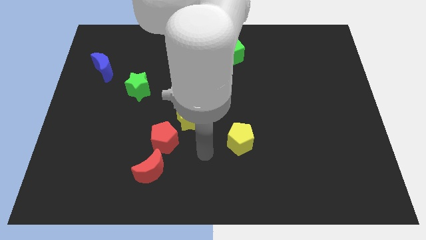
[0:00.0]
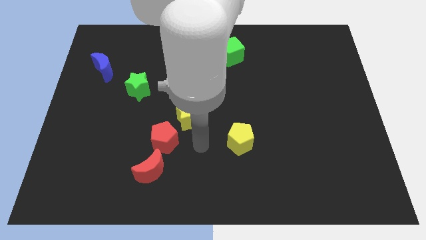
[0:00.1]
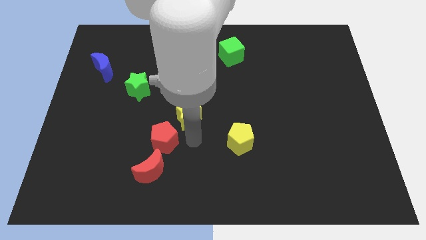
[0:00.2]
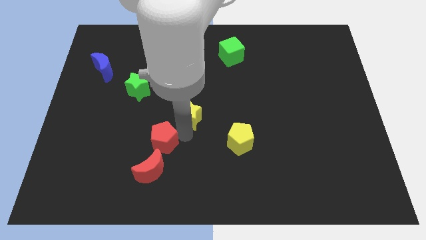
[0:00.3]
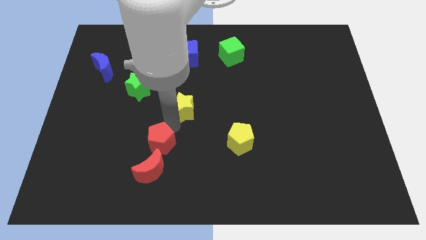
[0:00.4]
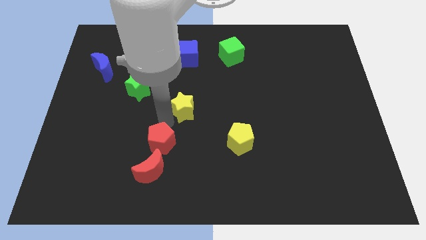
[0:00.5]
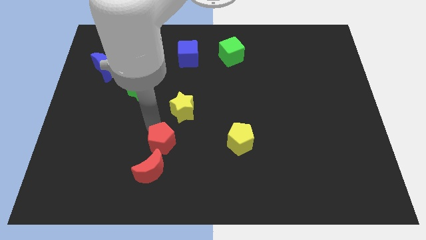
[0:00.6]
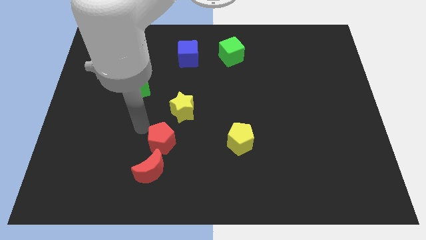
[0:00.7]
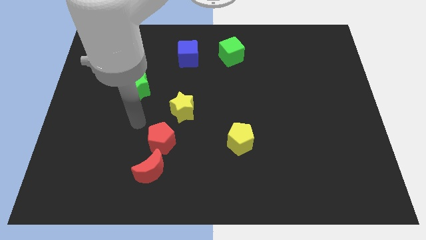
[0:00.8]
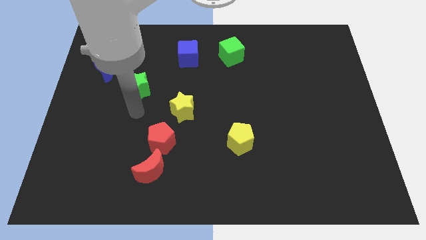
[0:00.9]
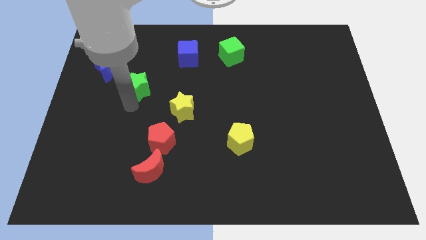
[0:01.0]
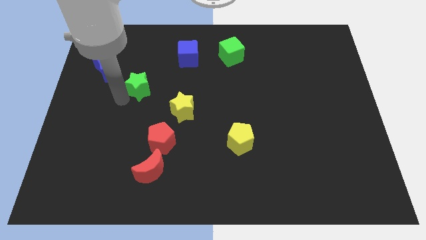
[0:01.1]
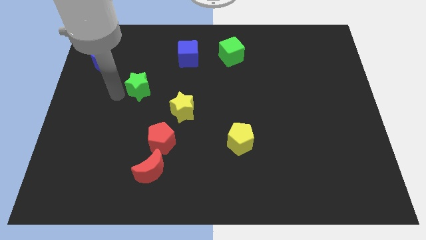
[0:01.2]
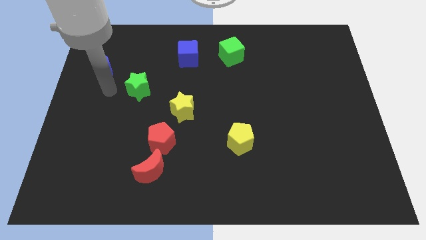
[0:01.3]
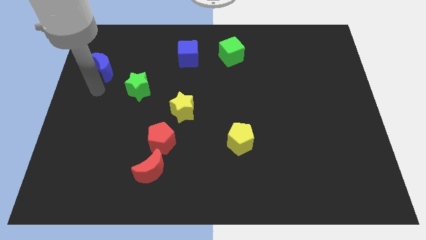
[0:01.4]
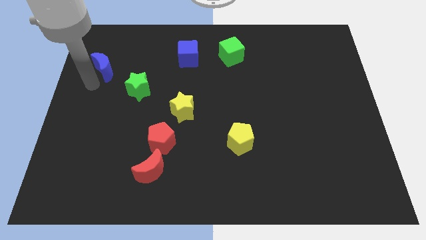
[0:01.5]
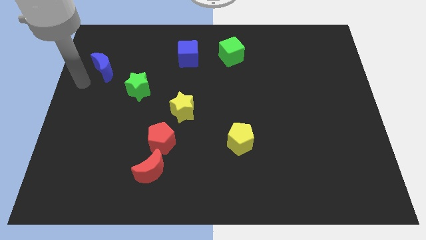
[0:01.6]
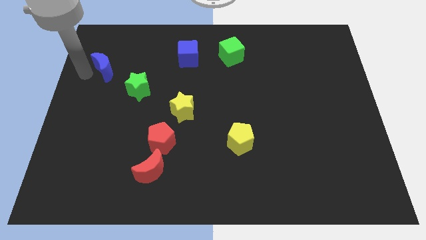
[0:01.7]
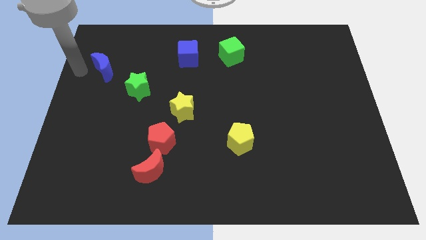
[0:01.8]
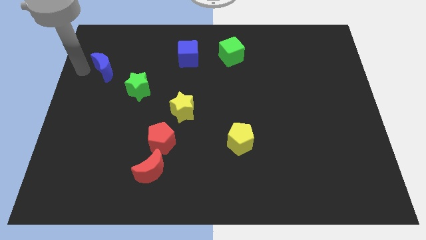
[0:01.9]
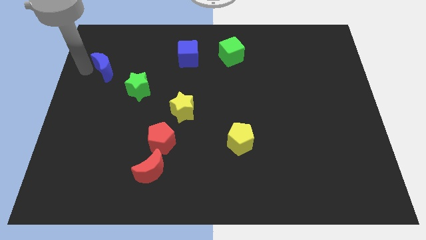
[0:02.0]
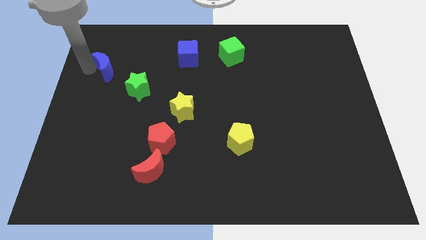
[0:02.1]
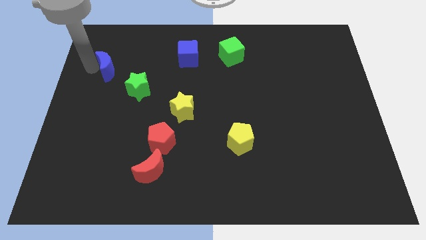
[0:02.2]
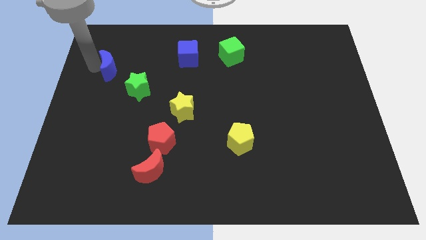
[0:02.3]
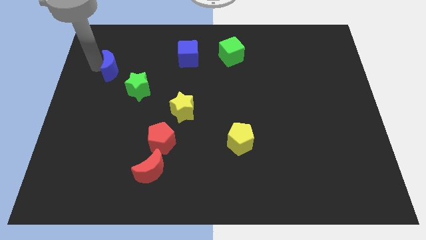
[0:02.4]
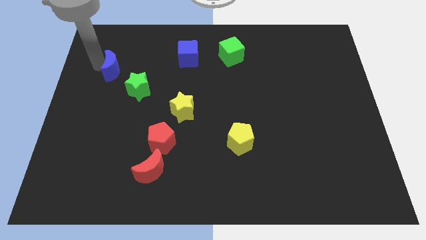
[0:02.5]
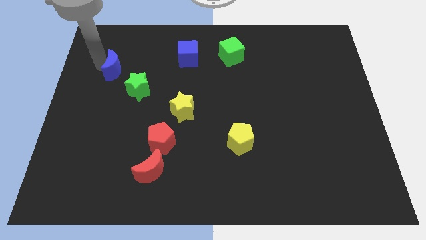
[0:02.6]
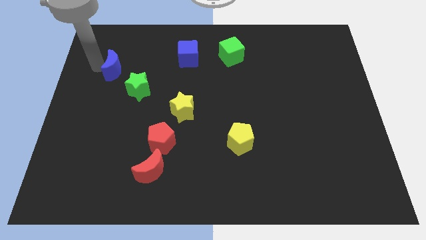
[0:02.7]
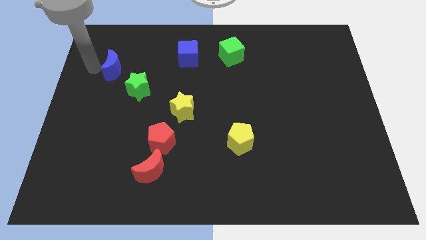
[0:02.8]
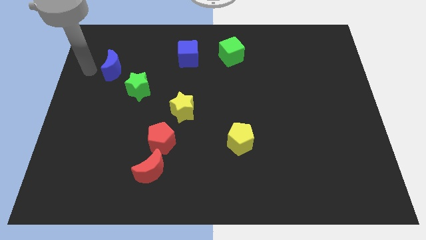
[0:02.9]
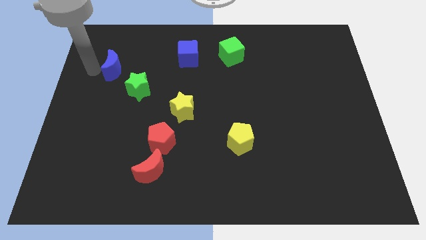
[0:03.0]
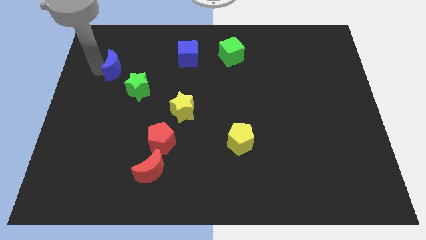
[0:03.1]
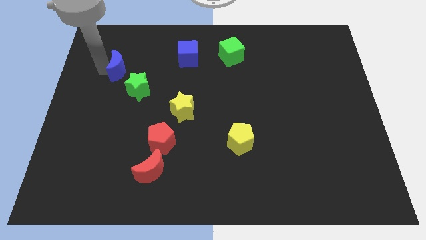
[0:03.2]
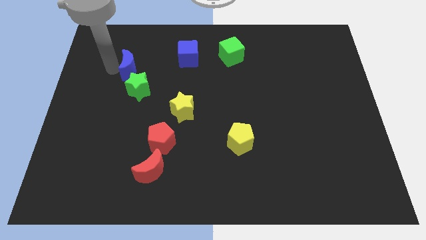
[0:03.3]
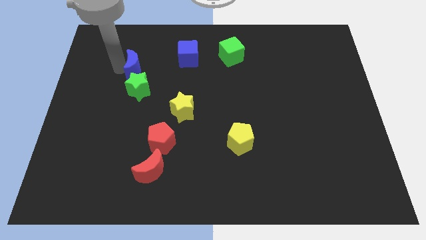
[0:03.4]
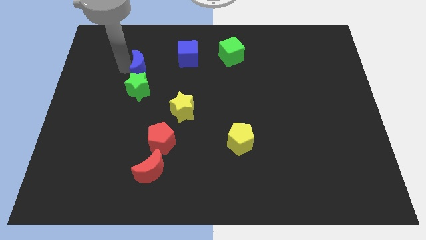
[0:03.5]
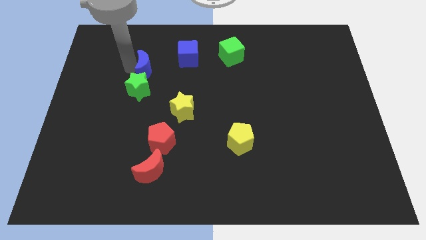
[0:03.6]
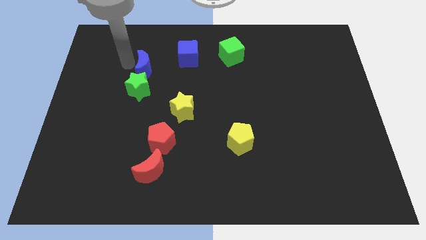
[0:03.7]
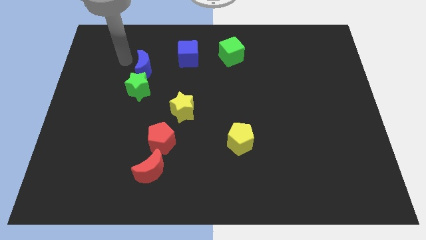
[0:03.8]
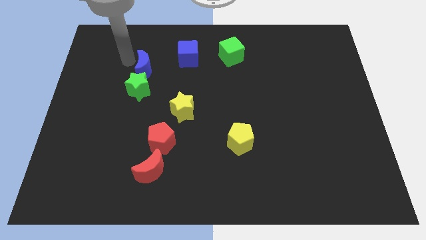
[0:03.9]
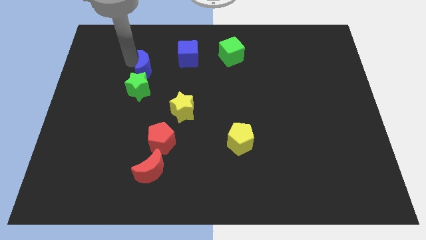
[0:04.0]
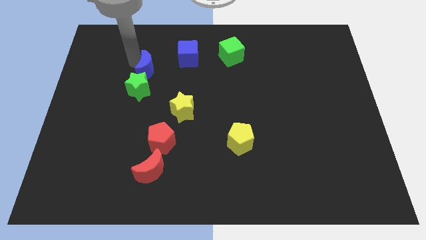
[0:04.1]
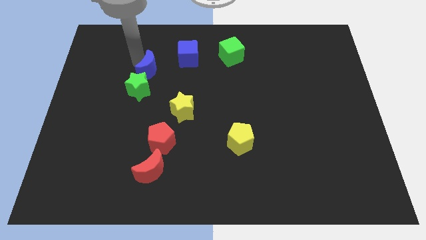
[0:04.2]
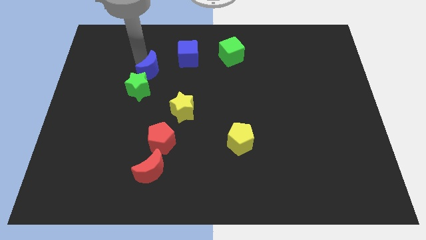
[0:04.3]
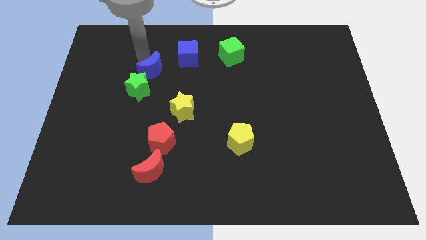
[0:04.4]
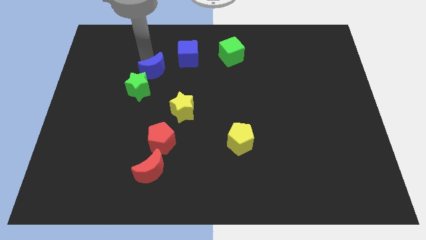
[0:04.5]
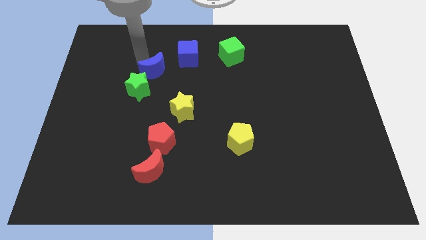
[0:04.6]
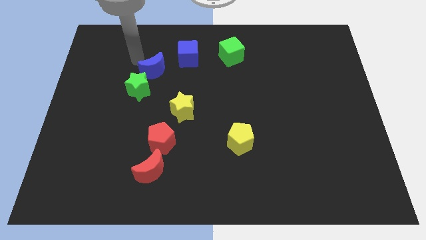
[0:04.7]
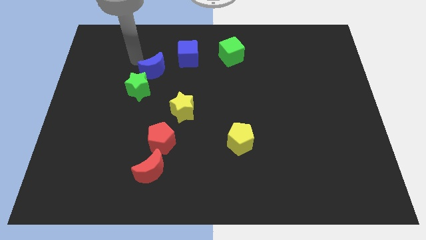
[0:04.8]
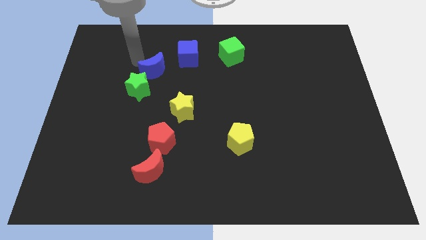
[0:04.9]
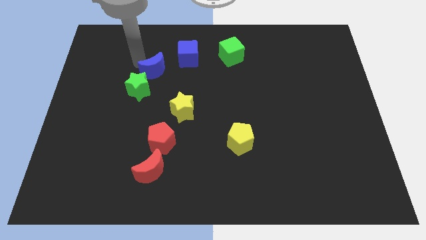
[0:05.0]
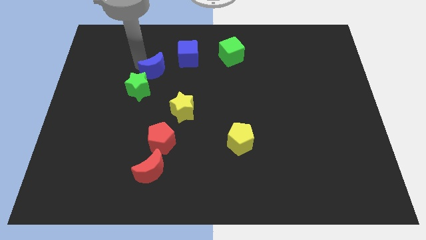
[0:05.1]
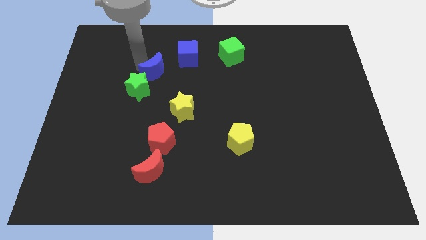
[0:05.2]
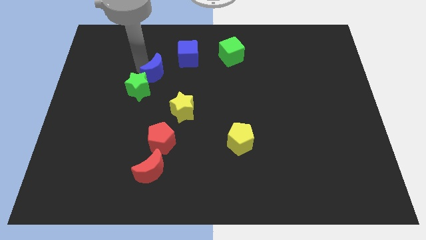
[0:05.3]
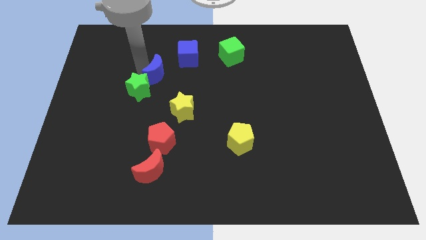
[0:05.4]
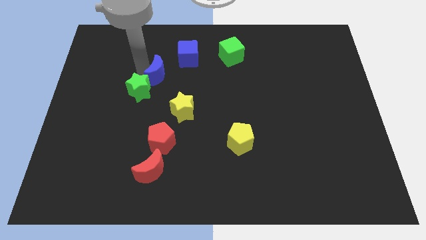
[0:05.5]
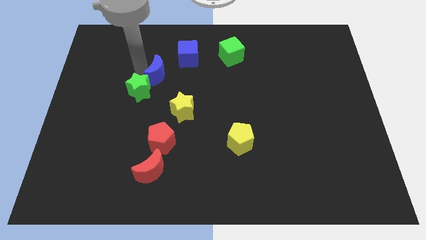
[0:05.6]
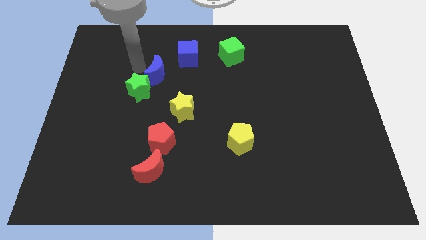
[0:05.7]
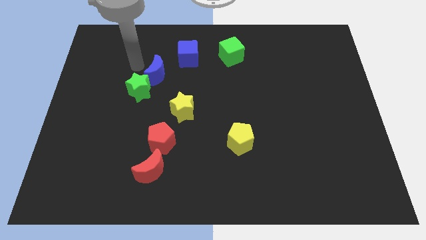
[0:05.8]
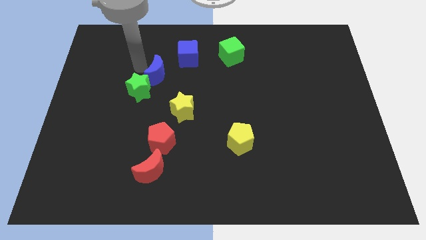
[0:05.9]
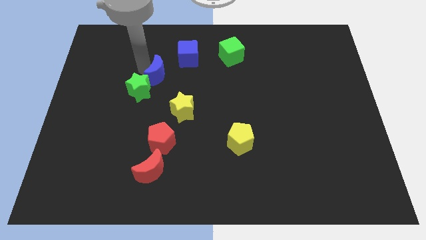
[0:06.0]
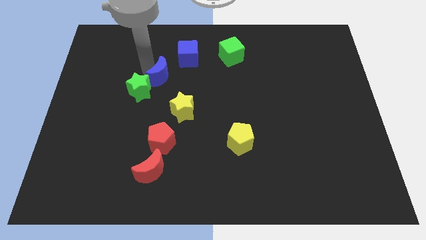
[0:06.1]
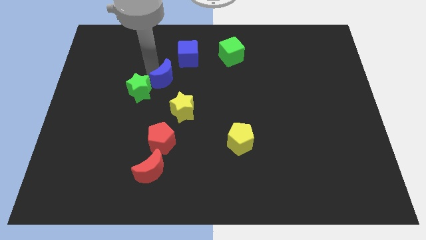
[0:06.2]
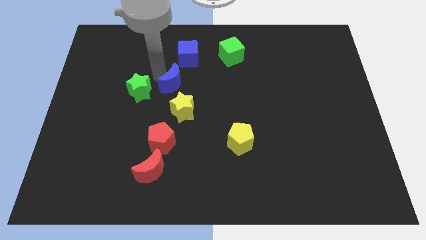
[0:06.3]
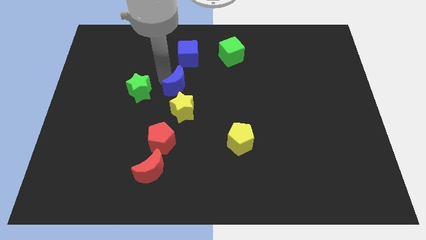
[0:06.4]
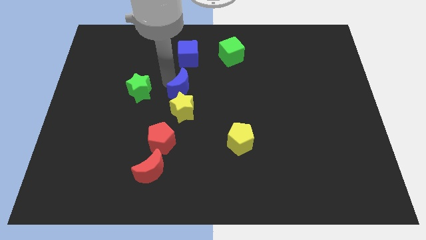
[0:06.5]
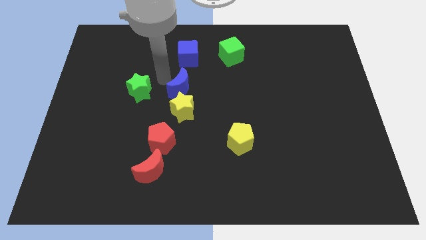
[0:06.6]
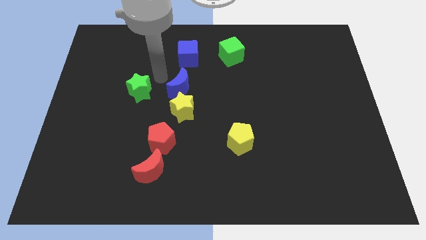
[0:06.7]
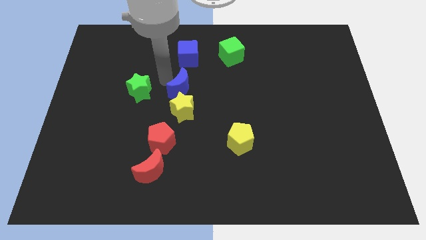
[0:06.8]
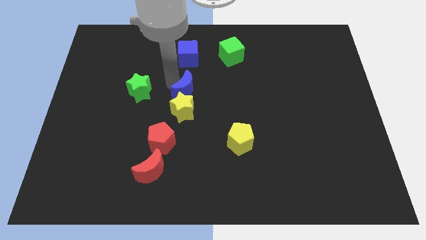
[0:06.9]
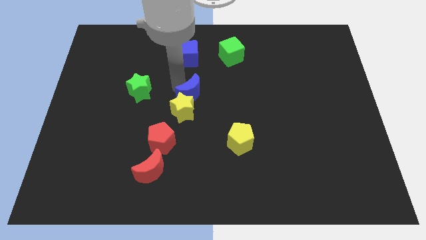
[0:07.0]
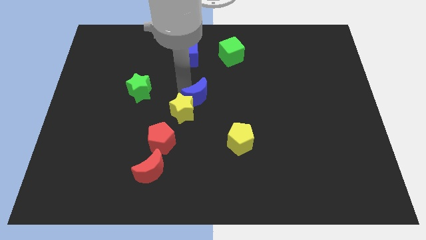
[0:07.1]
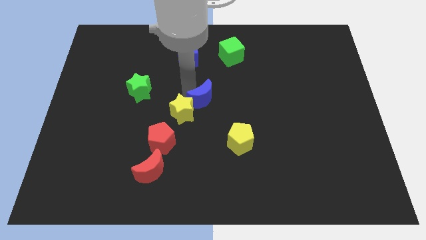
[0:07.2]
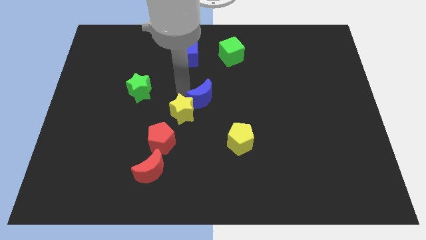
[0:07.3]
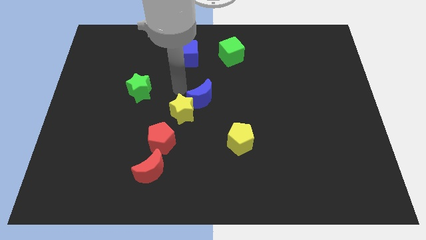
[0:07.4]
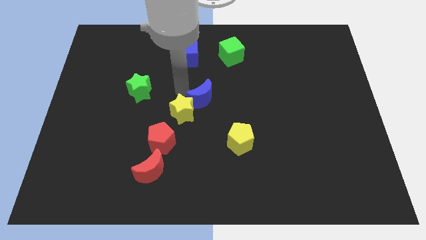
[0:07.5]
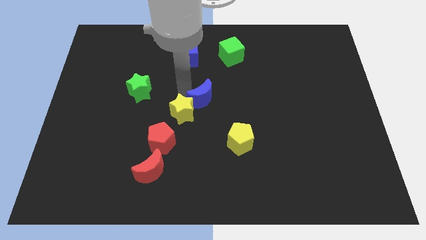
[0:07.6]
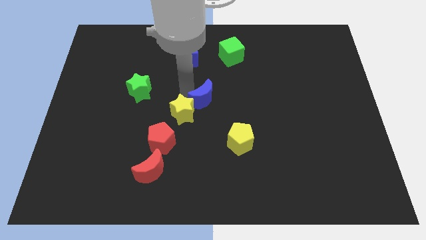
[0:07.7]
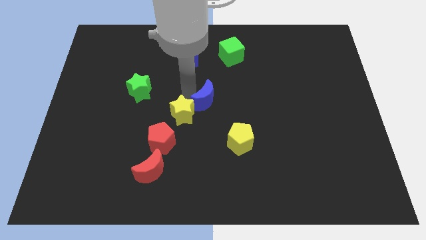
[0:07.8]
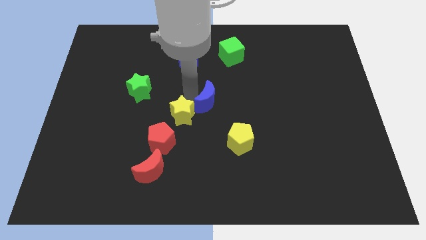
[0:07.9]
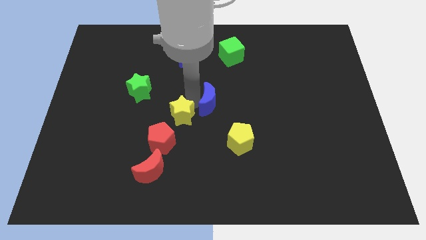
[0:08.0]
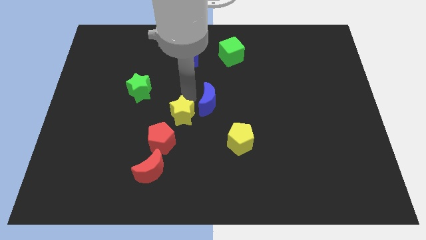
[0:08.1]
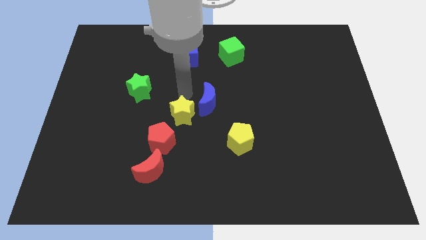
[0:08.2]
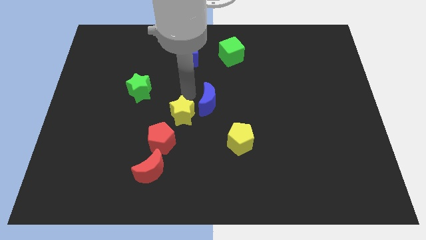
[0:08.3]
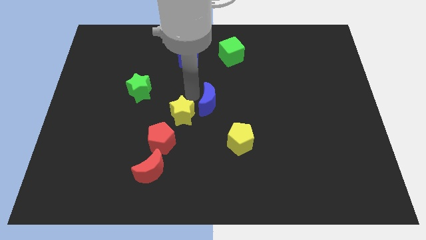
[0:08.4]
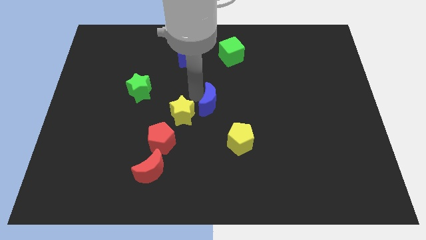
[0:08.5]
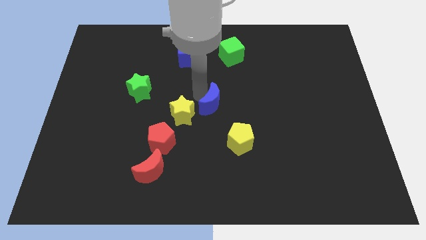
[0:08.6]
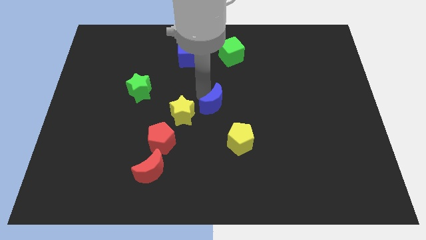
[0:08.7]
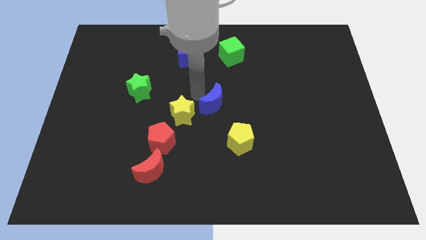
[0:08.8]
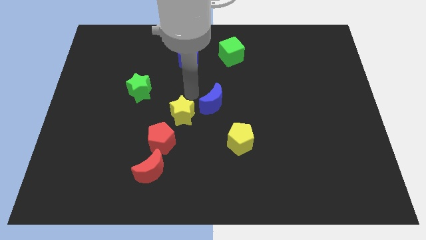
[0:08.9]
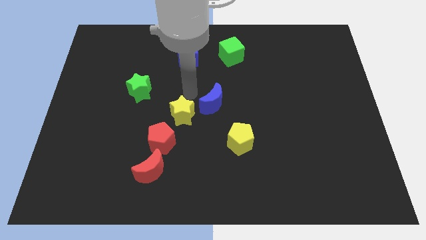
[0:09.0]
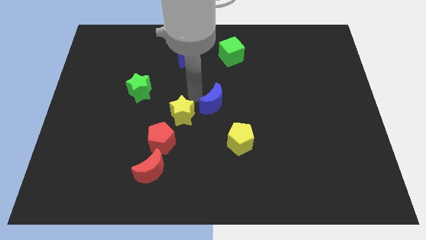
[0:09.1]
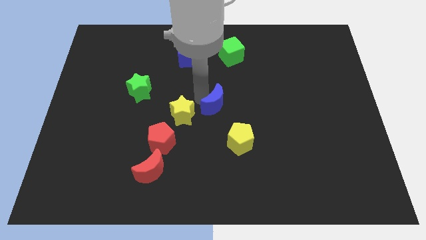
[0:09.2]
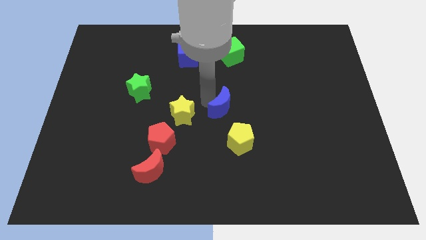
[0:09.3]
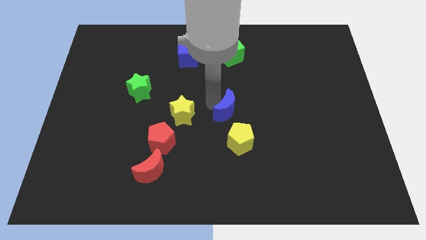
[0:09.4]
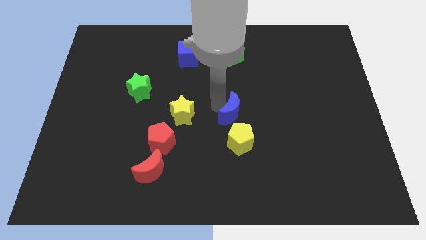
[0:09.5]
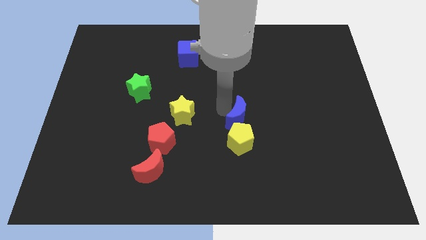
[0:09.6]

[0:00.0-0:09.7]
slide the blue moon diagonally up and to the right of the yellow pentagon
